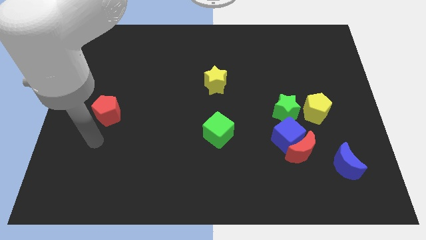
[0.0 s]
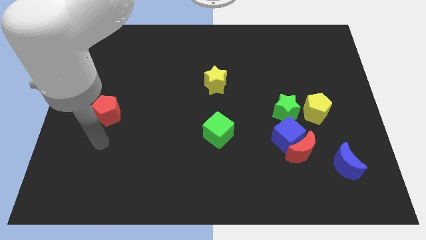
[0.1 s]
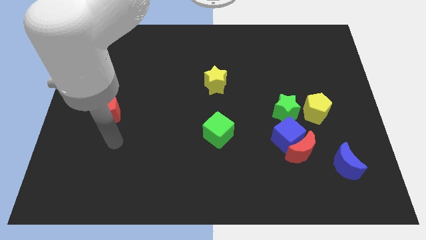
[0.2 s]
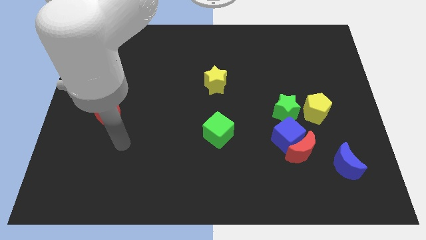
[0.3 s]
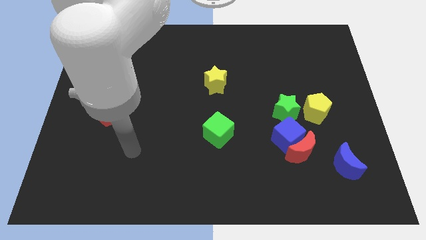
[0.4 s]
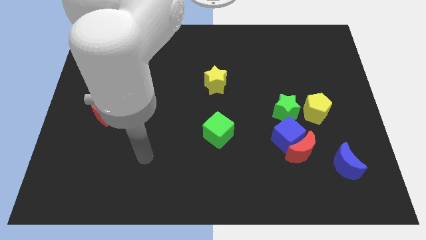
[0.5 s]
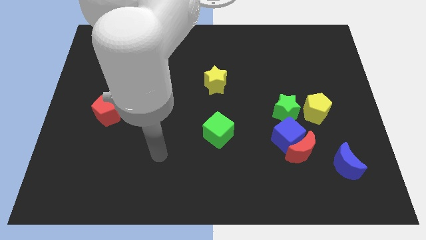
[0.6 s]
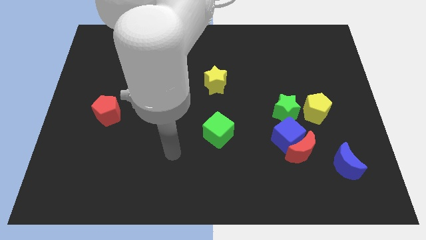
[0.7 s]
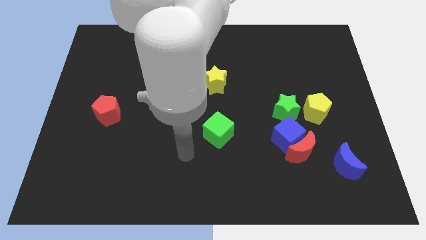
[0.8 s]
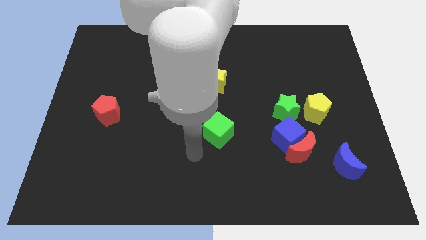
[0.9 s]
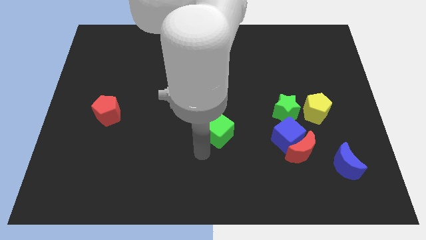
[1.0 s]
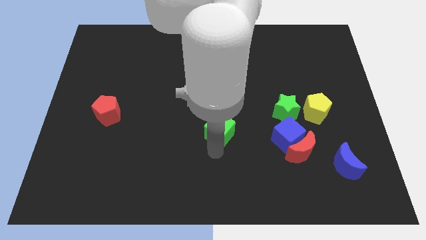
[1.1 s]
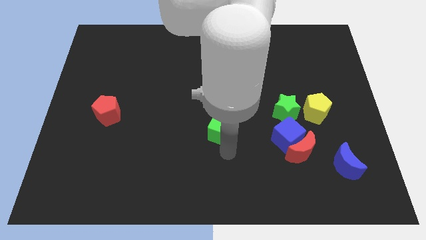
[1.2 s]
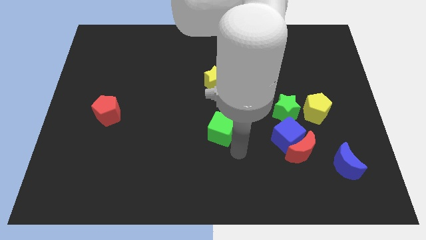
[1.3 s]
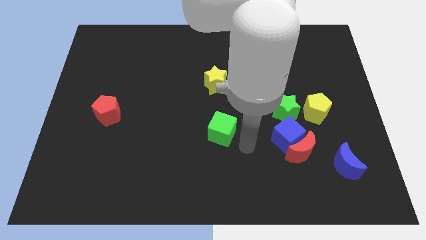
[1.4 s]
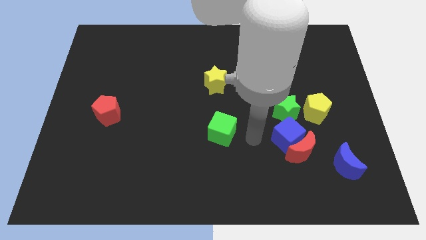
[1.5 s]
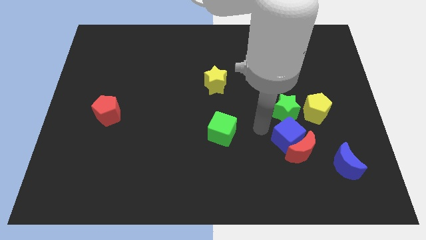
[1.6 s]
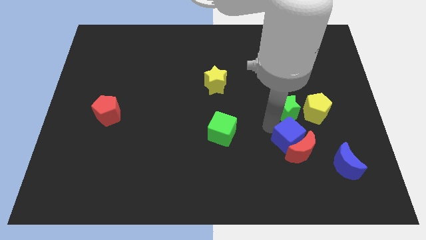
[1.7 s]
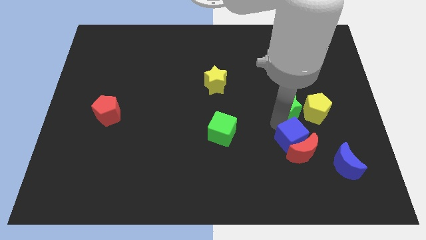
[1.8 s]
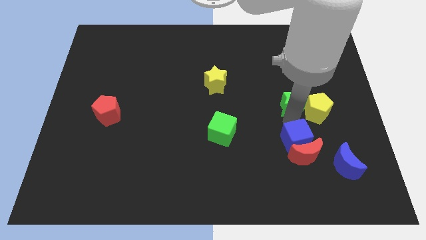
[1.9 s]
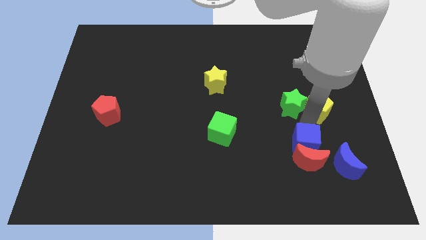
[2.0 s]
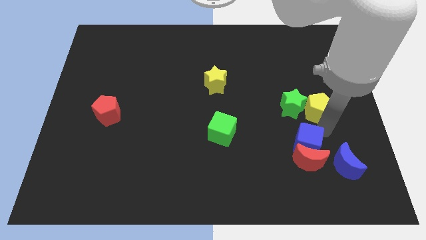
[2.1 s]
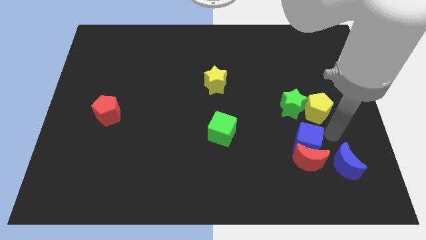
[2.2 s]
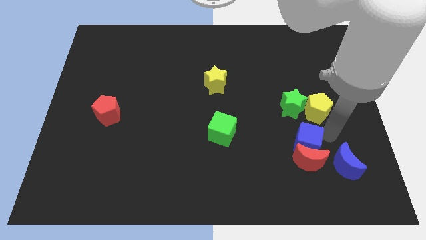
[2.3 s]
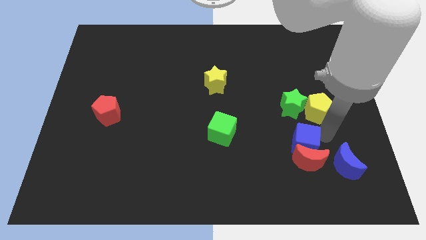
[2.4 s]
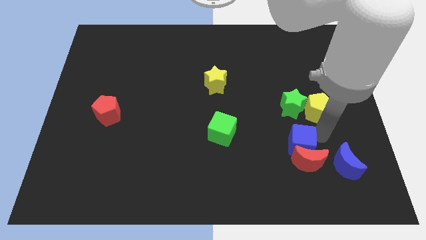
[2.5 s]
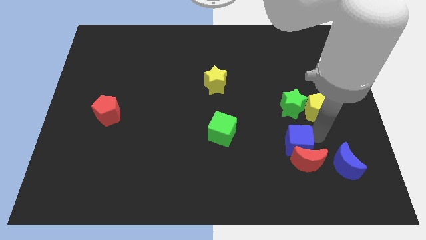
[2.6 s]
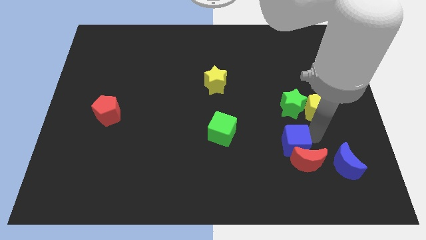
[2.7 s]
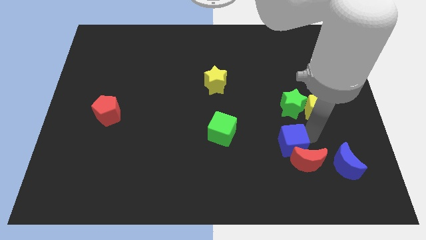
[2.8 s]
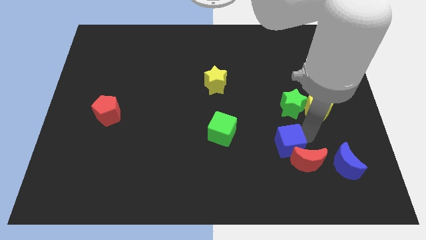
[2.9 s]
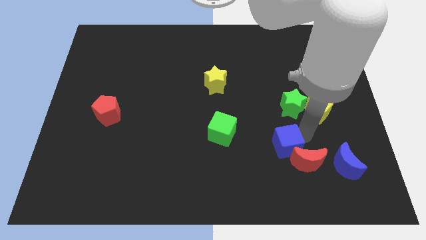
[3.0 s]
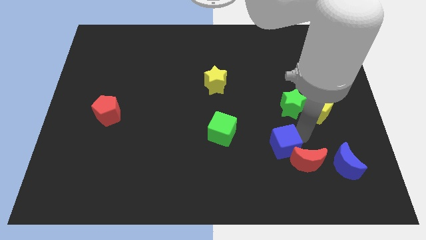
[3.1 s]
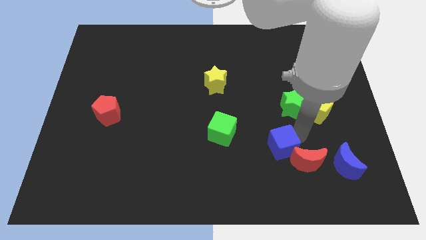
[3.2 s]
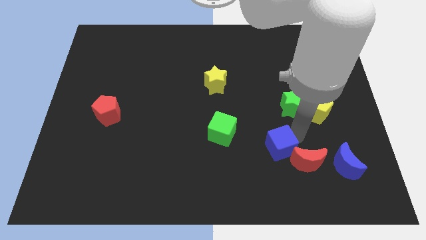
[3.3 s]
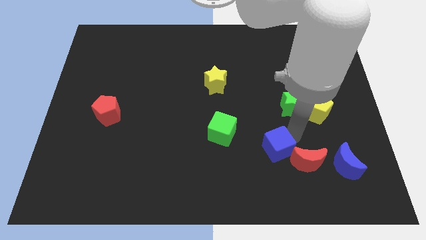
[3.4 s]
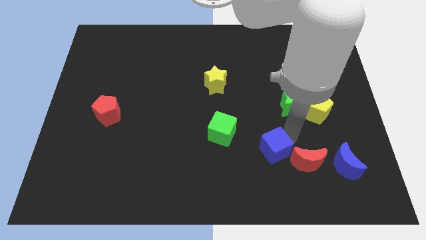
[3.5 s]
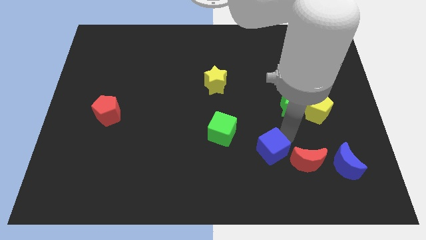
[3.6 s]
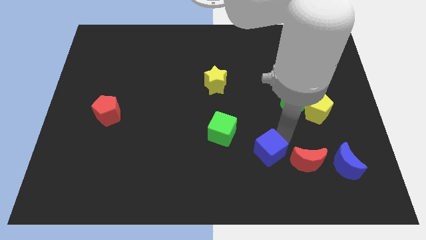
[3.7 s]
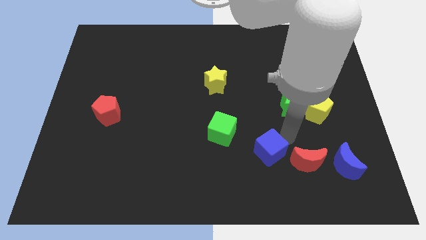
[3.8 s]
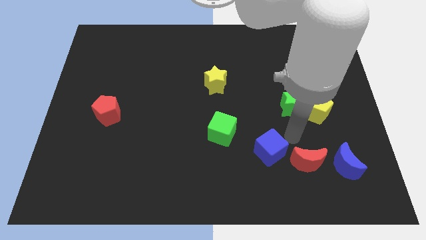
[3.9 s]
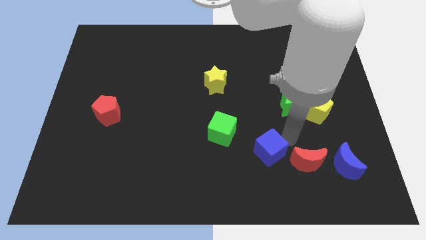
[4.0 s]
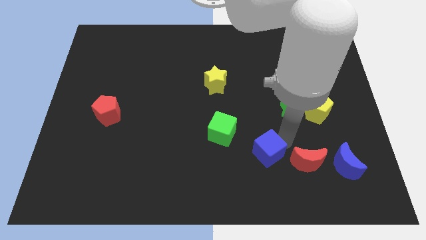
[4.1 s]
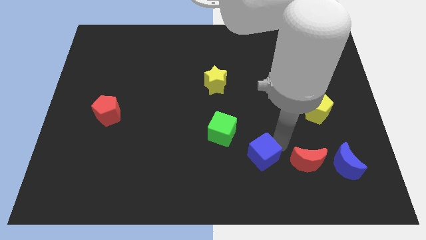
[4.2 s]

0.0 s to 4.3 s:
pull the blue cube apart from the red moon and green star

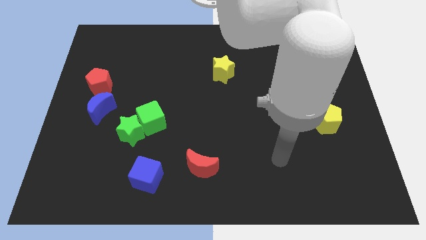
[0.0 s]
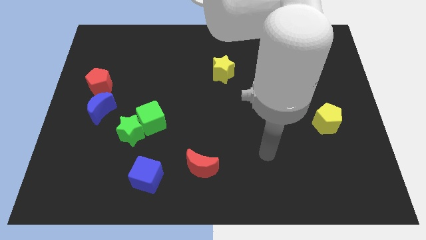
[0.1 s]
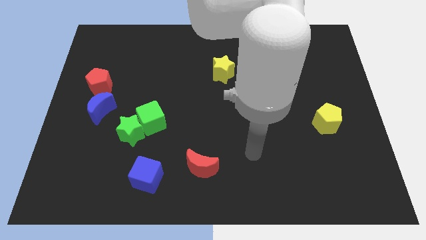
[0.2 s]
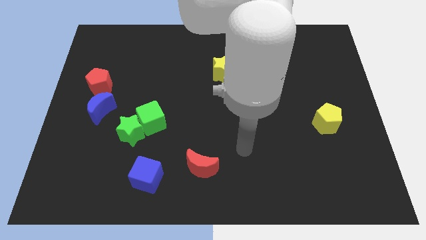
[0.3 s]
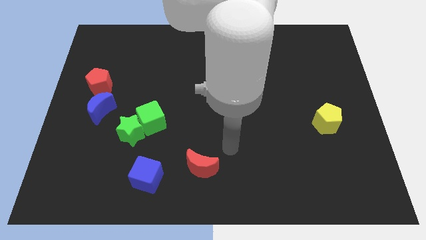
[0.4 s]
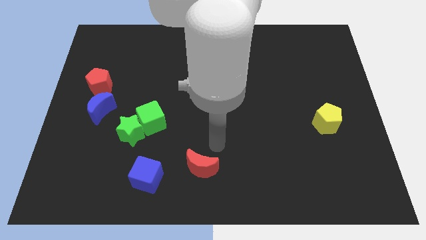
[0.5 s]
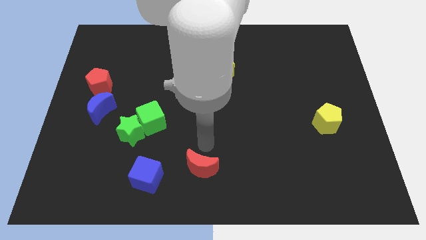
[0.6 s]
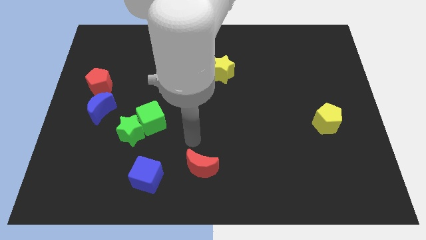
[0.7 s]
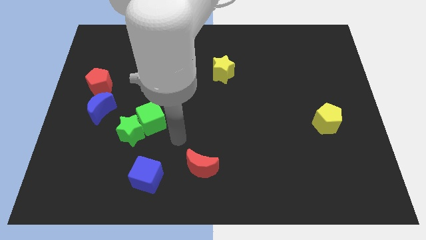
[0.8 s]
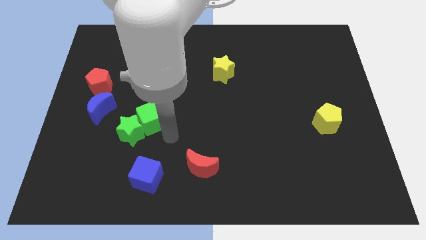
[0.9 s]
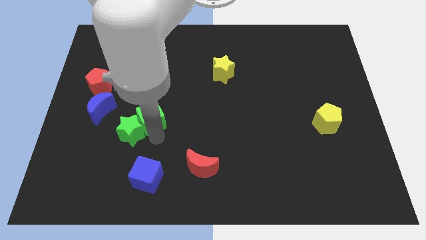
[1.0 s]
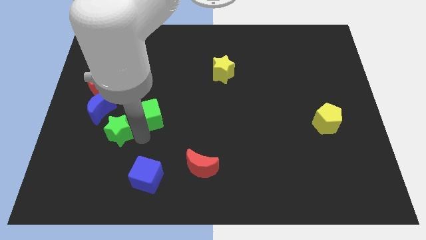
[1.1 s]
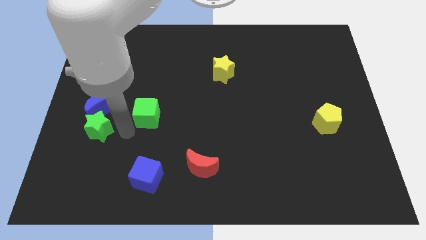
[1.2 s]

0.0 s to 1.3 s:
separate the green cube from the green star

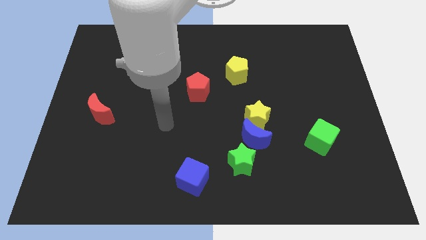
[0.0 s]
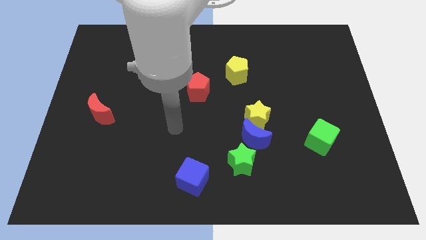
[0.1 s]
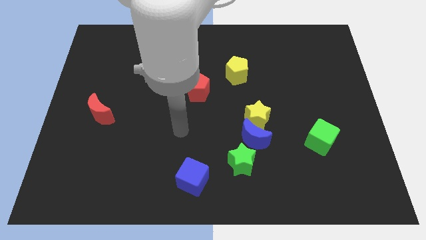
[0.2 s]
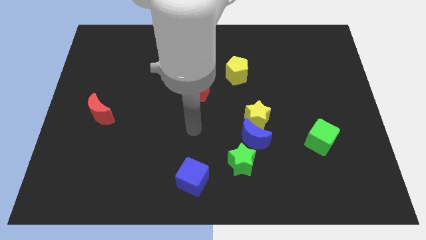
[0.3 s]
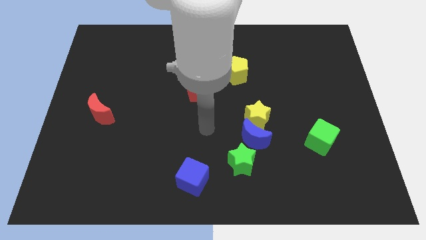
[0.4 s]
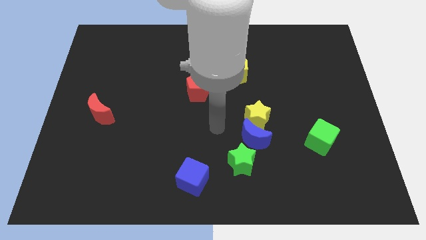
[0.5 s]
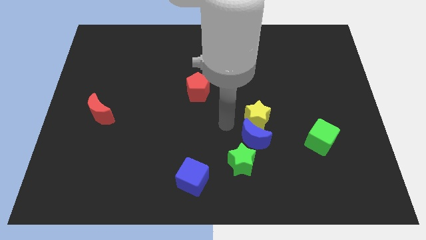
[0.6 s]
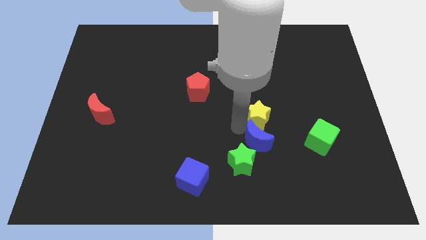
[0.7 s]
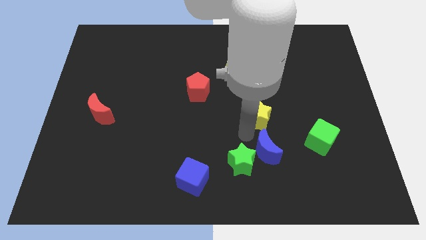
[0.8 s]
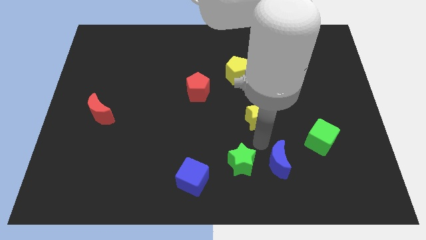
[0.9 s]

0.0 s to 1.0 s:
separate the yellow star from the blue moon

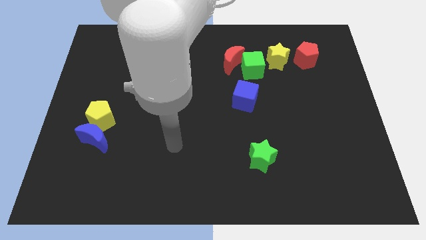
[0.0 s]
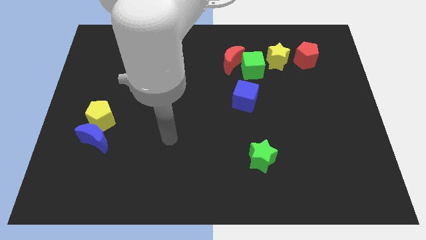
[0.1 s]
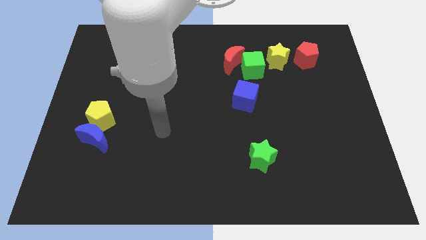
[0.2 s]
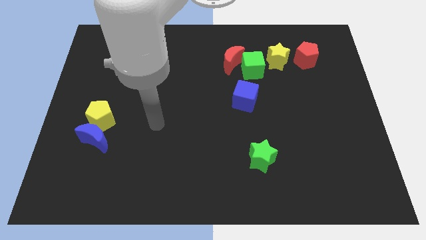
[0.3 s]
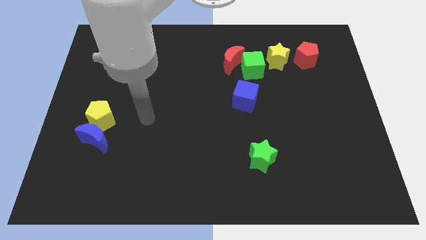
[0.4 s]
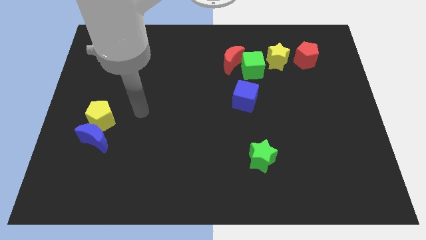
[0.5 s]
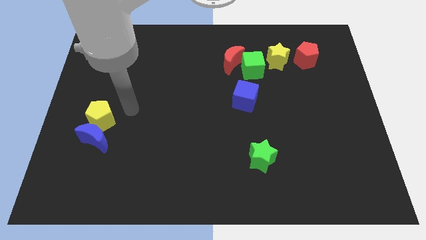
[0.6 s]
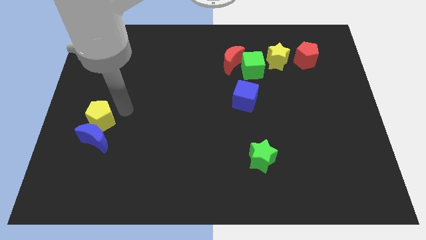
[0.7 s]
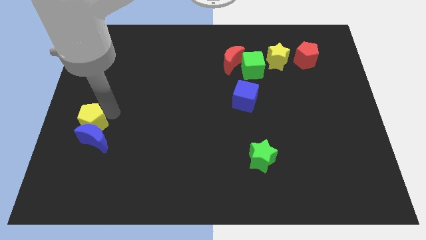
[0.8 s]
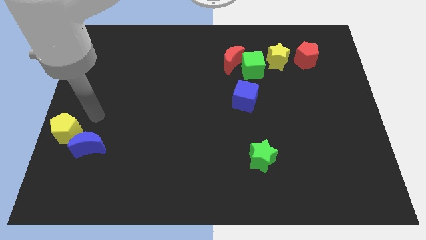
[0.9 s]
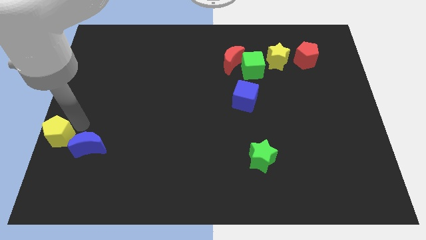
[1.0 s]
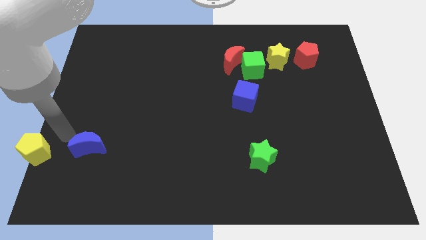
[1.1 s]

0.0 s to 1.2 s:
move the blue moon away from the yellow pentagon

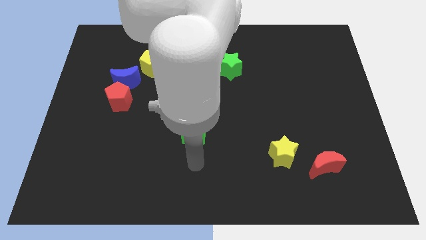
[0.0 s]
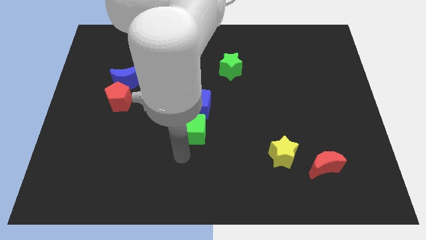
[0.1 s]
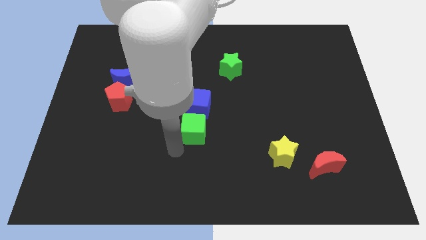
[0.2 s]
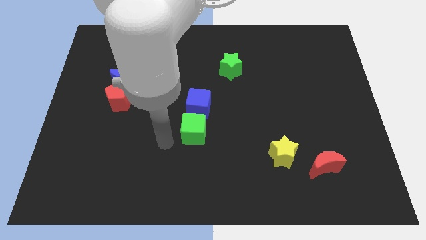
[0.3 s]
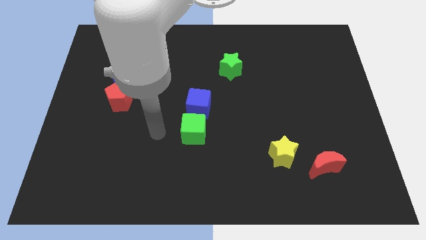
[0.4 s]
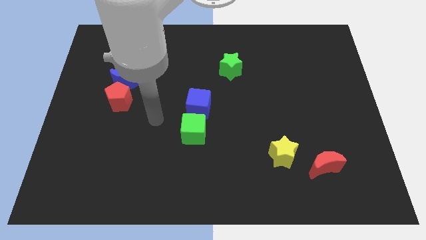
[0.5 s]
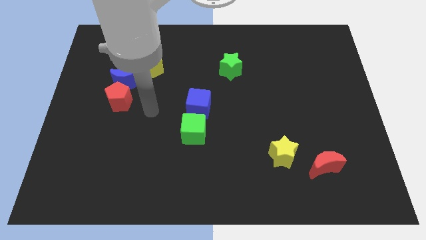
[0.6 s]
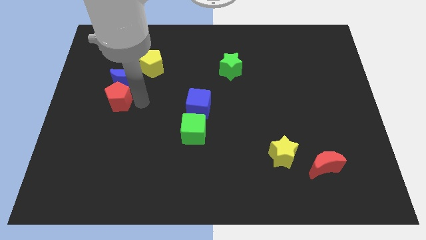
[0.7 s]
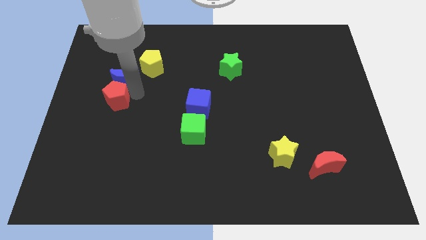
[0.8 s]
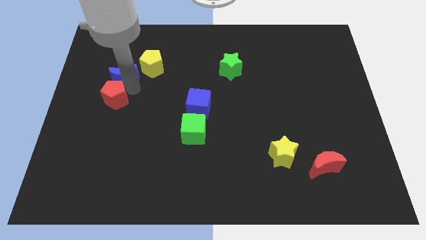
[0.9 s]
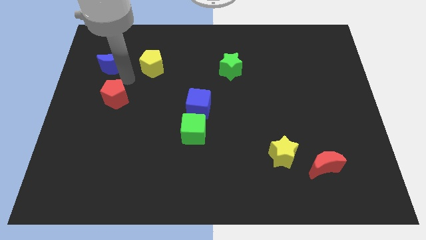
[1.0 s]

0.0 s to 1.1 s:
move the red pentagon away from the blue moon

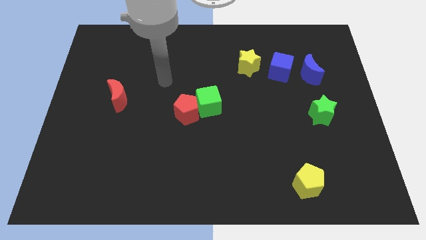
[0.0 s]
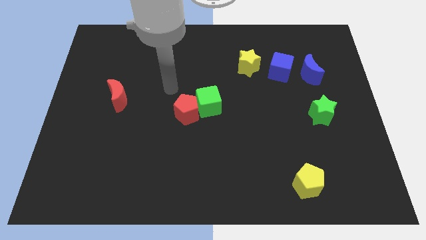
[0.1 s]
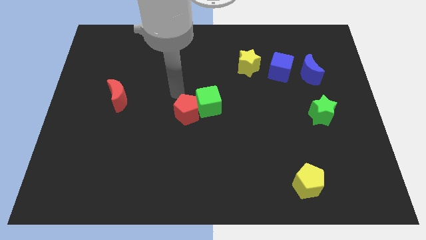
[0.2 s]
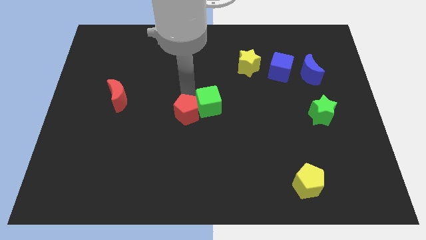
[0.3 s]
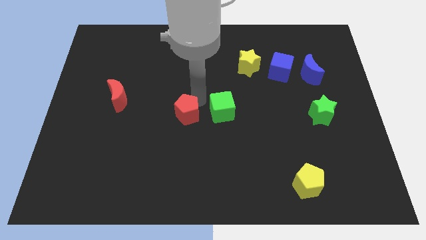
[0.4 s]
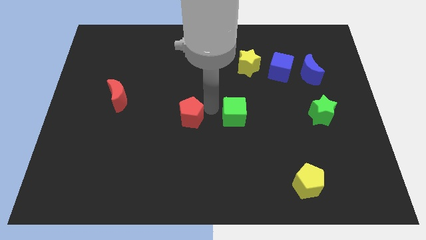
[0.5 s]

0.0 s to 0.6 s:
separate the red pentagon from the green cube
